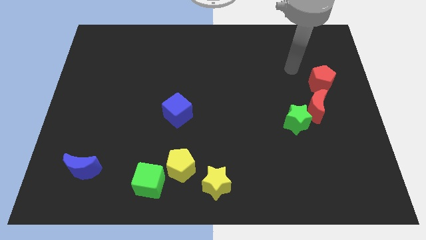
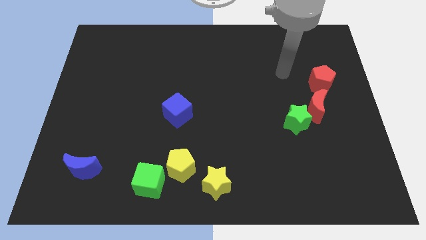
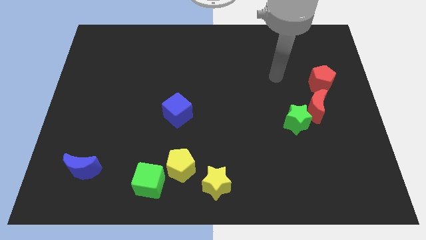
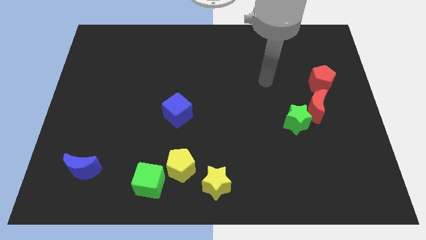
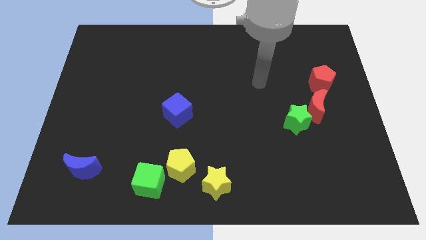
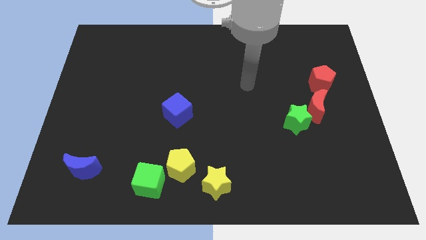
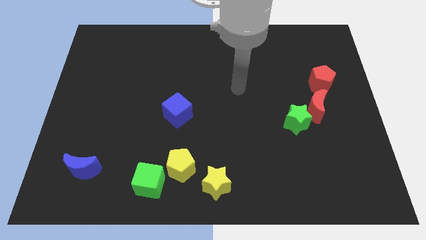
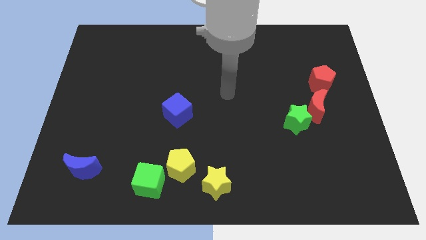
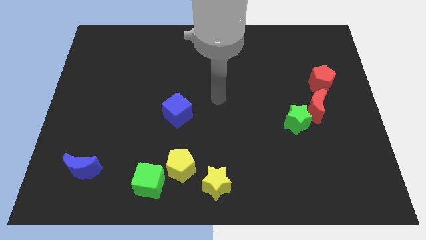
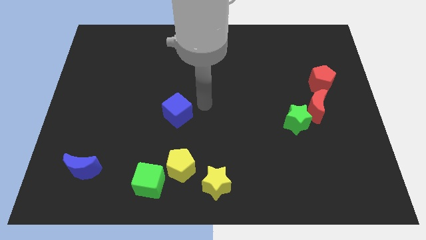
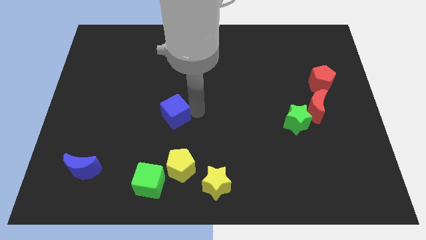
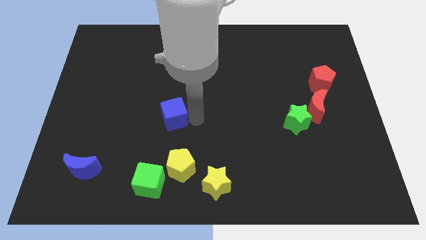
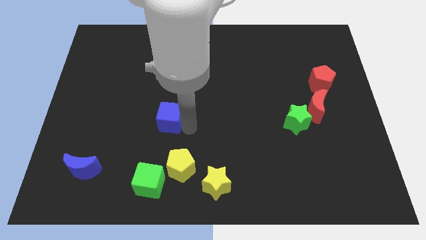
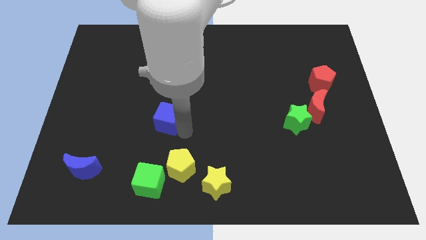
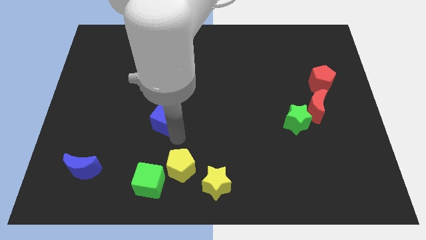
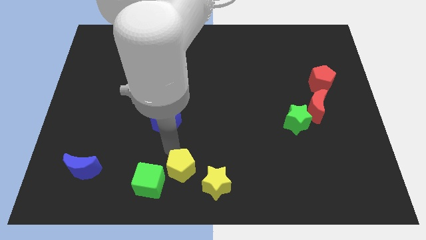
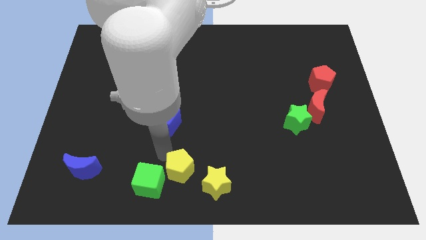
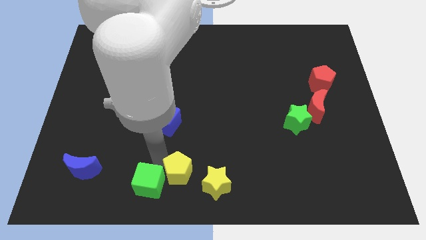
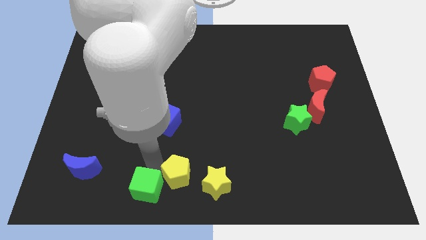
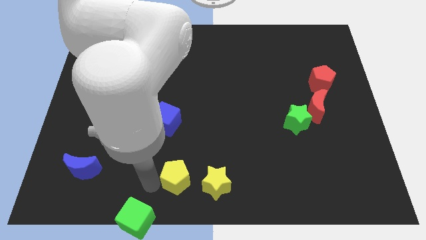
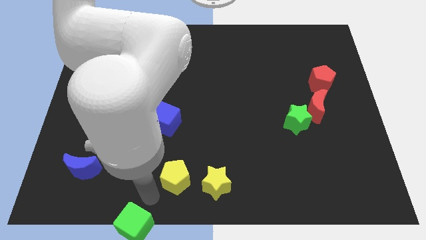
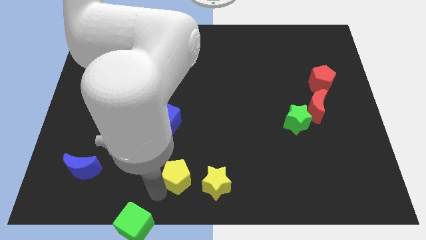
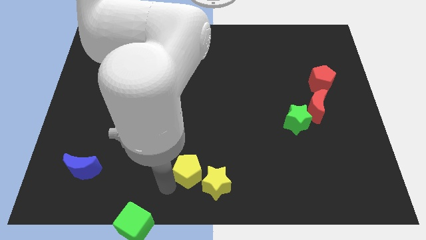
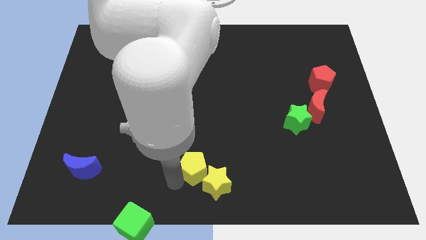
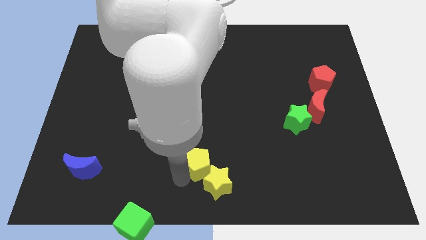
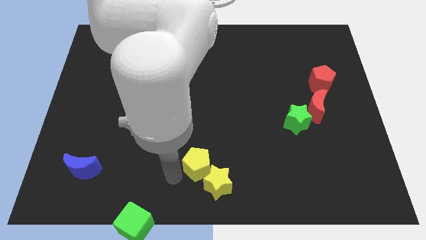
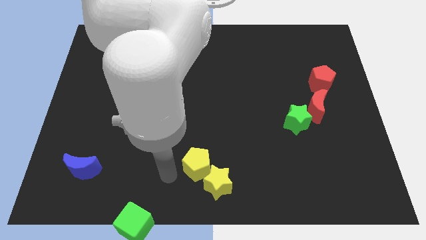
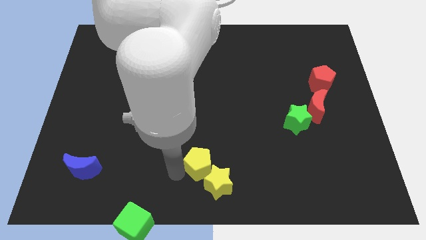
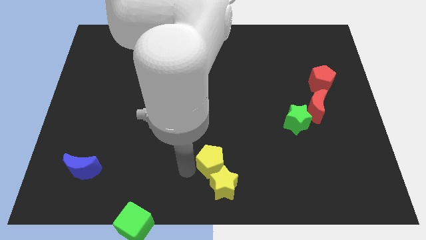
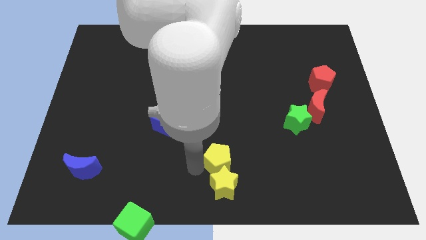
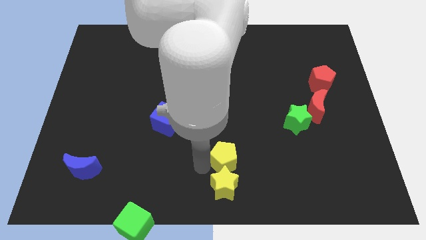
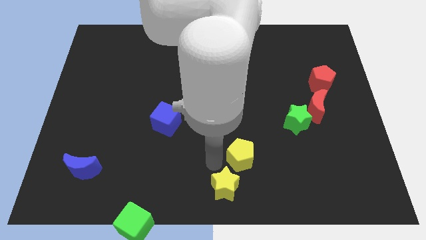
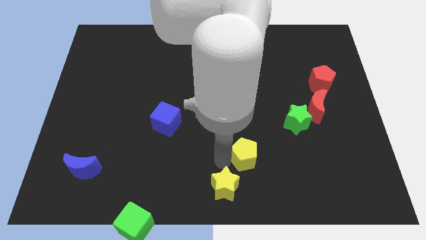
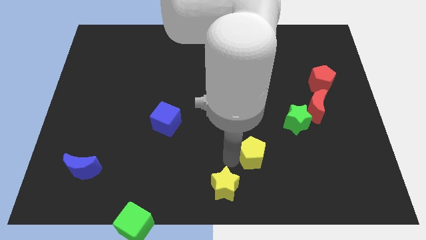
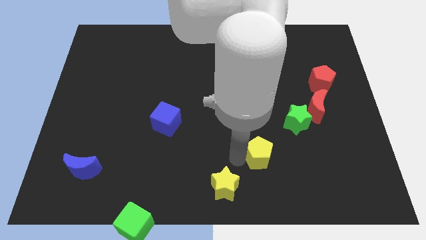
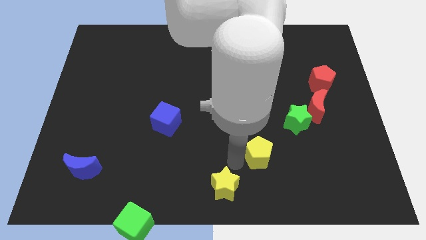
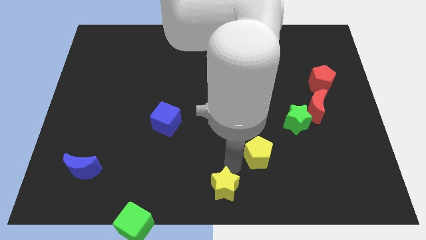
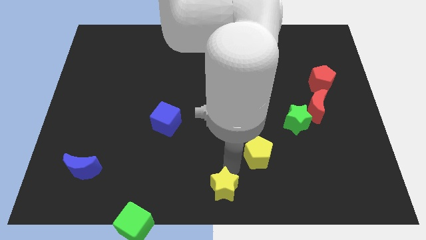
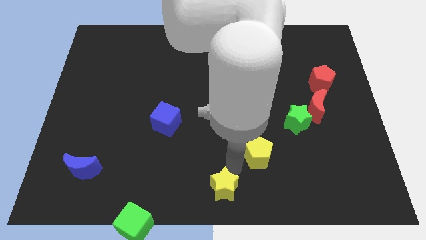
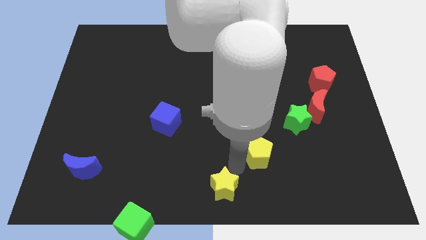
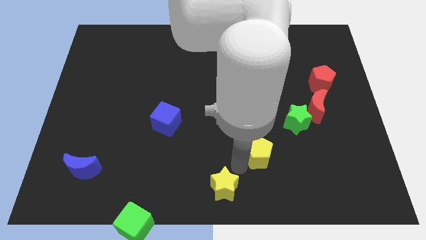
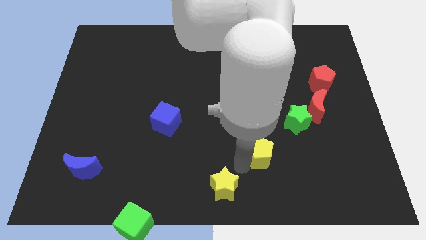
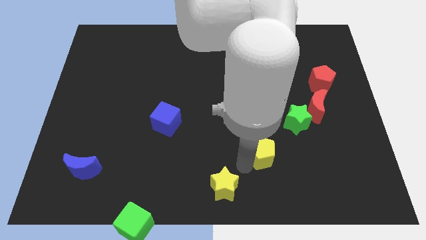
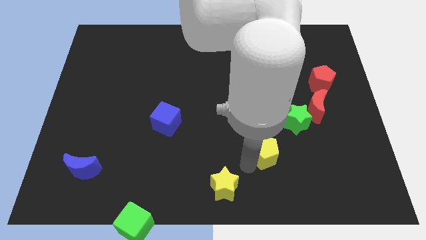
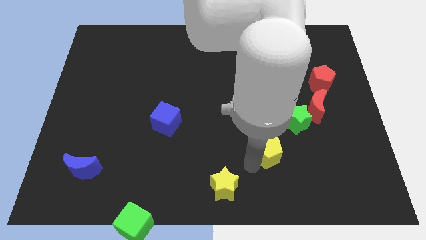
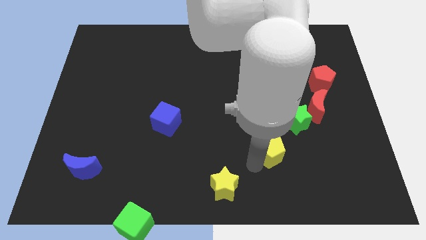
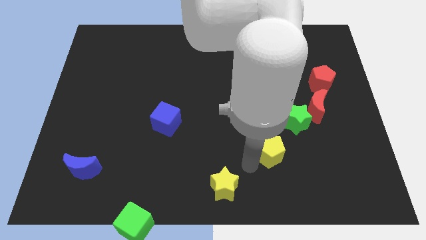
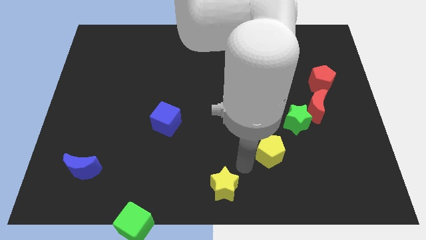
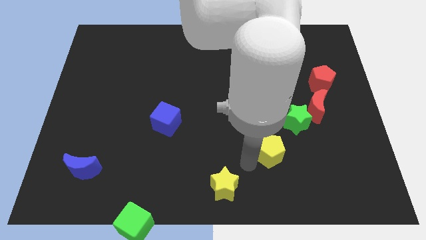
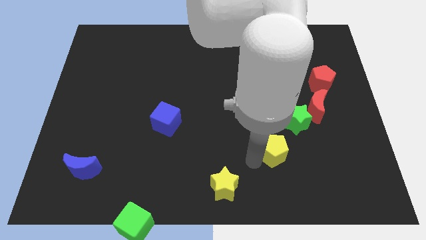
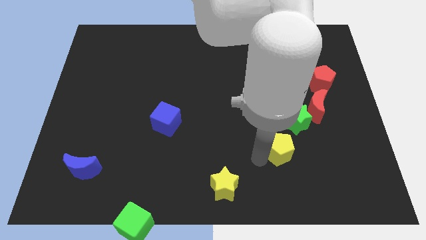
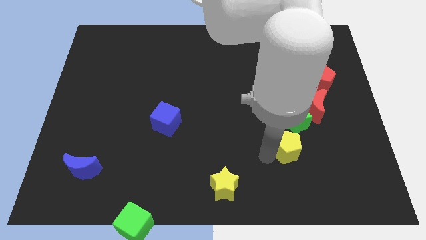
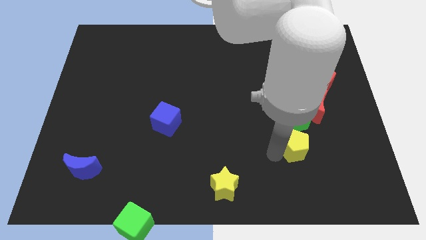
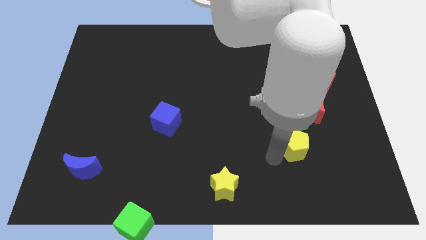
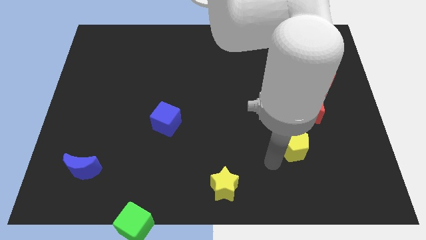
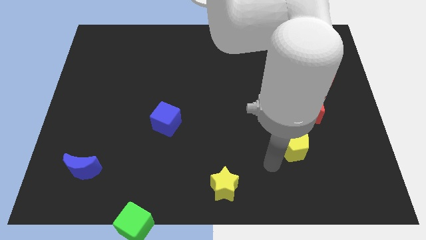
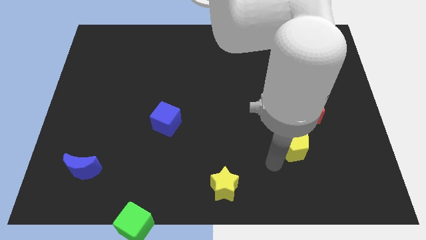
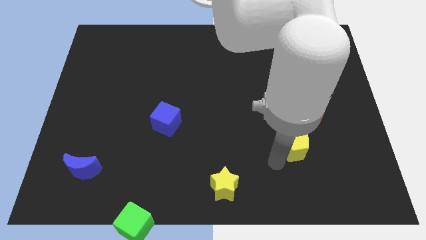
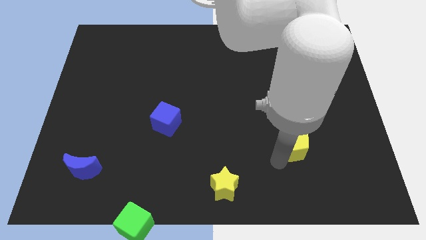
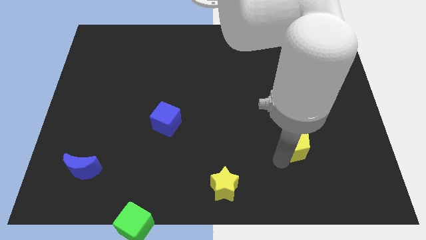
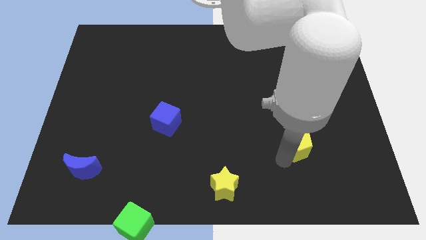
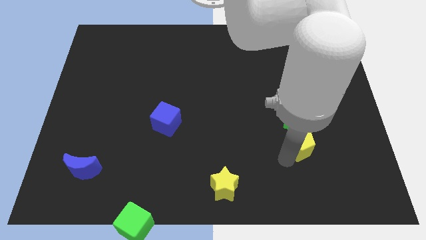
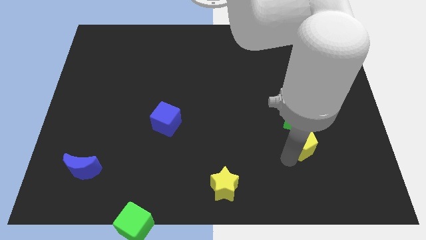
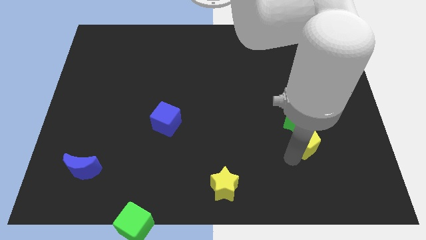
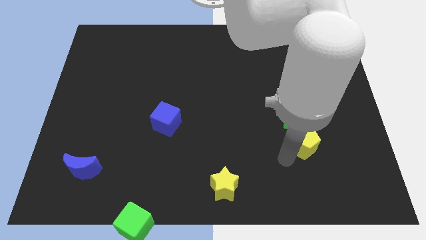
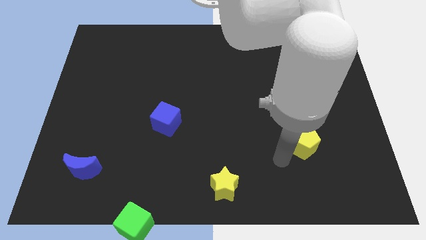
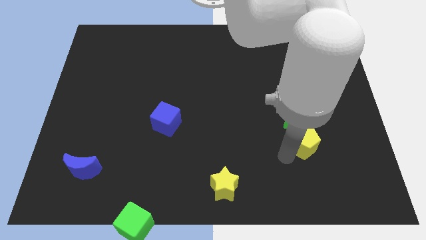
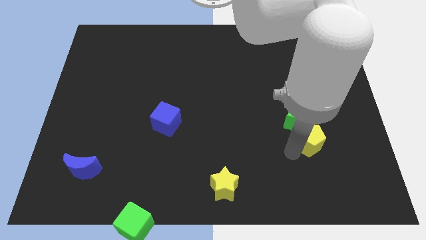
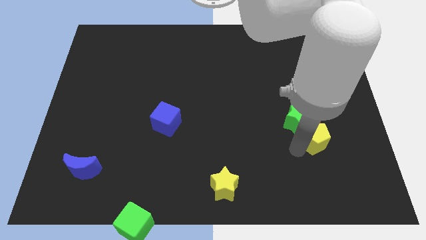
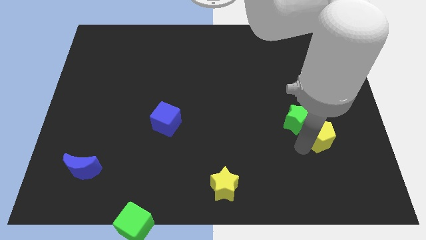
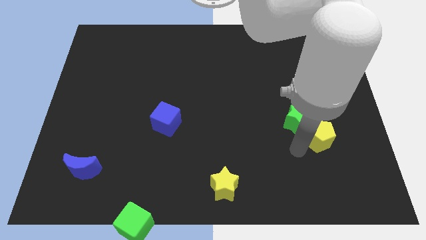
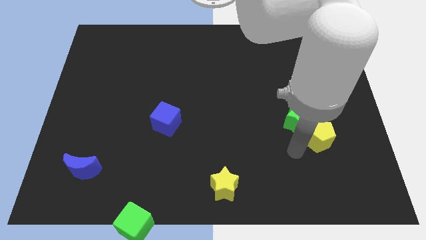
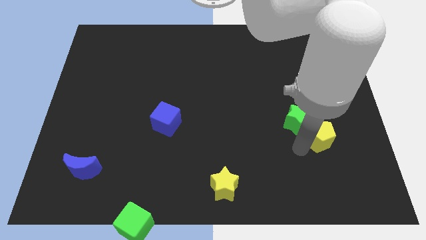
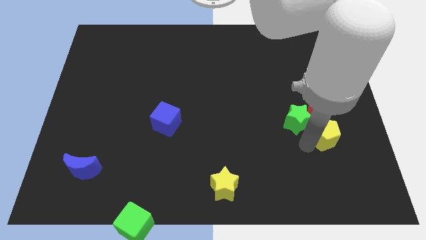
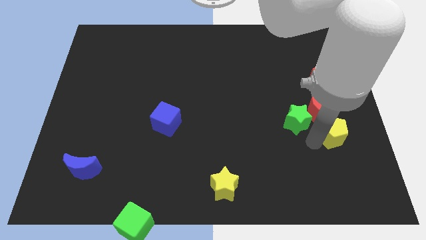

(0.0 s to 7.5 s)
push the yellow pentagon to the bottom right of the red moon
